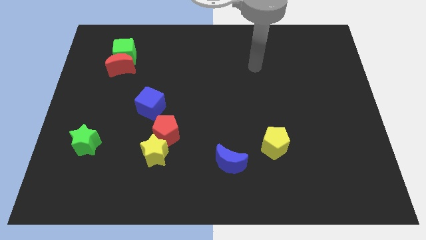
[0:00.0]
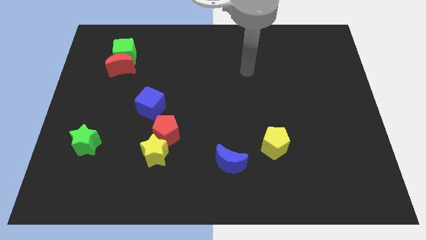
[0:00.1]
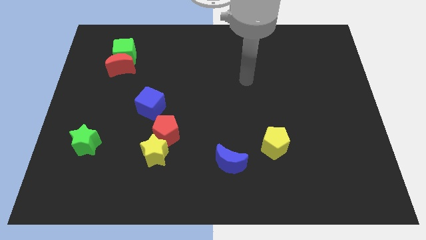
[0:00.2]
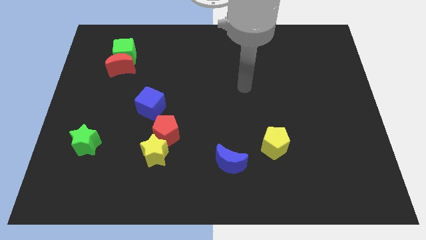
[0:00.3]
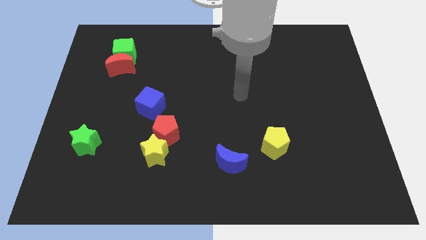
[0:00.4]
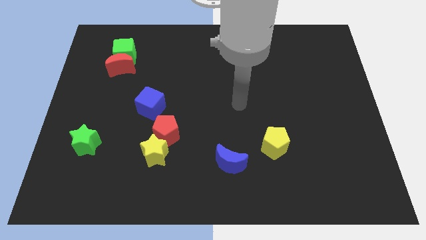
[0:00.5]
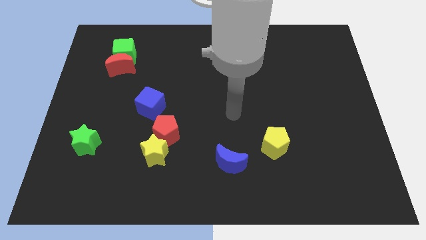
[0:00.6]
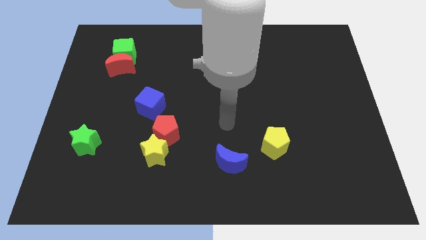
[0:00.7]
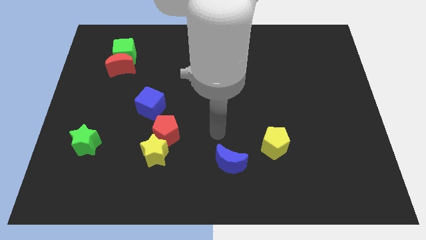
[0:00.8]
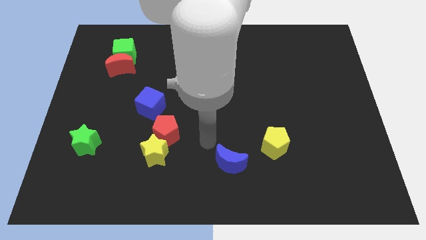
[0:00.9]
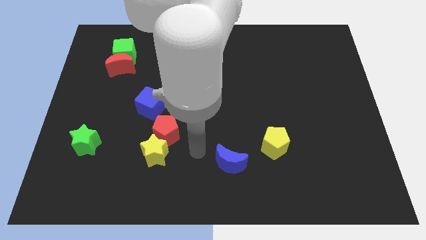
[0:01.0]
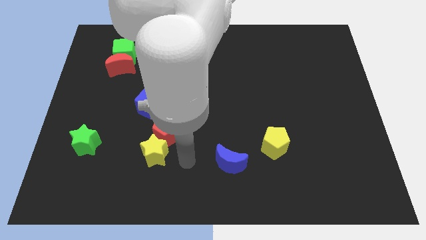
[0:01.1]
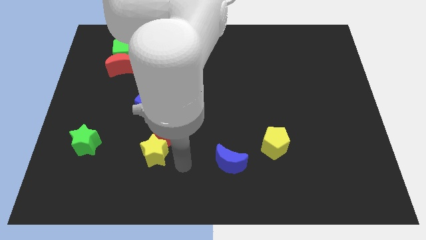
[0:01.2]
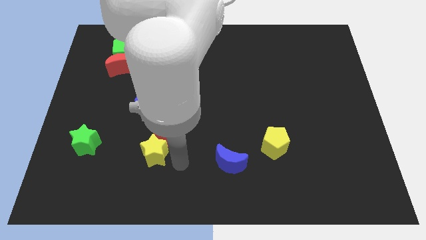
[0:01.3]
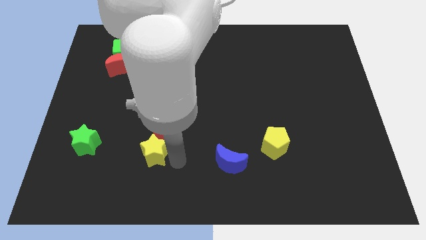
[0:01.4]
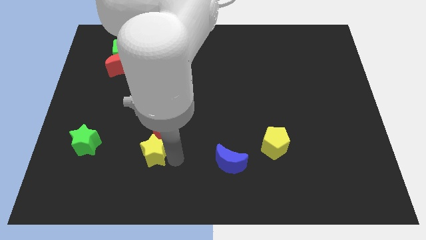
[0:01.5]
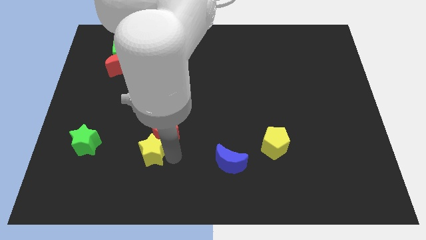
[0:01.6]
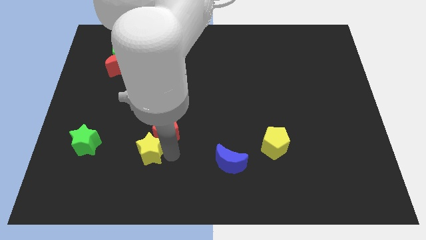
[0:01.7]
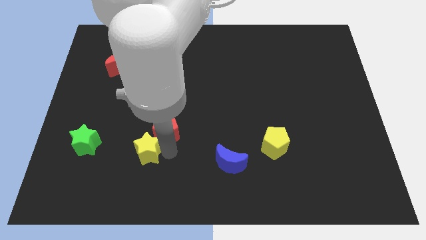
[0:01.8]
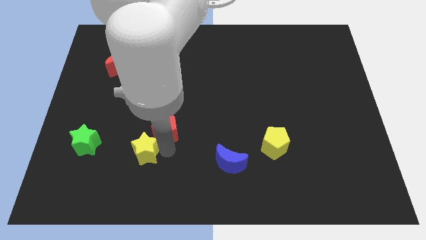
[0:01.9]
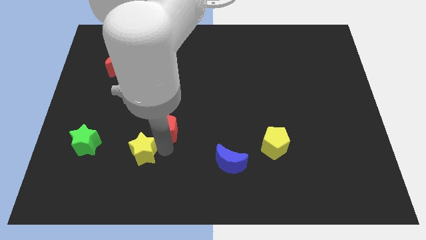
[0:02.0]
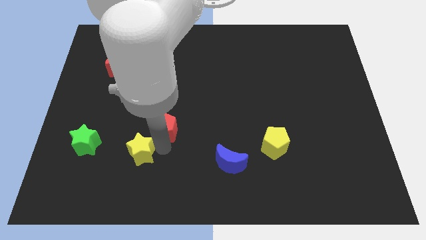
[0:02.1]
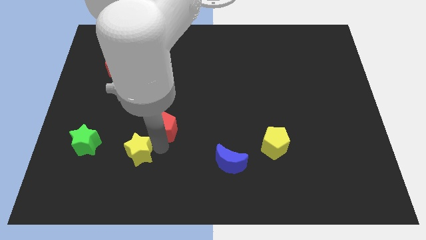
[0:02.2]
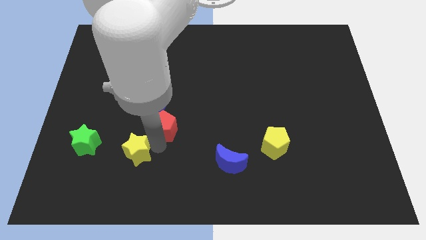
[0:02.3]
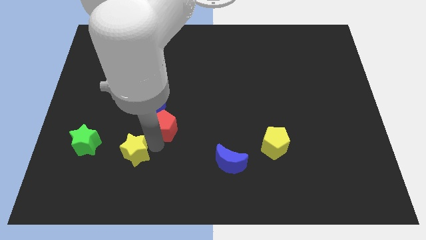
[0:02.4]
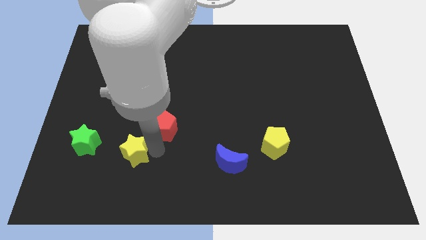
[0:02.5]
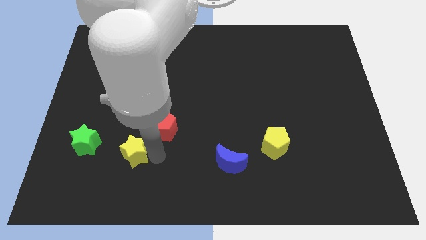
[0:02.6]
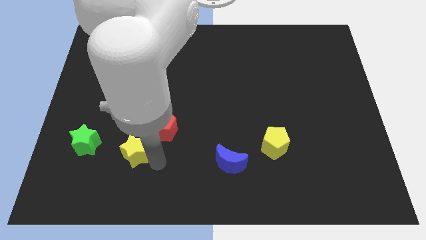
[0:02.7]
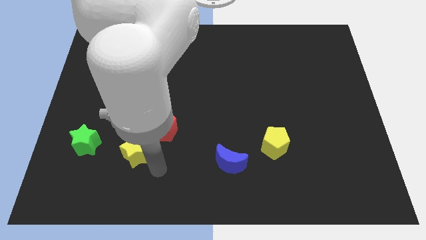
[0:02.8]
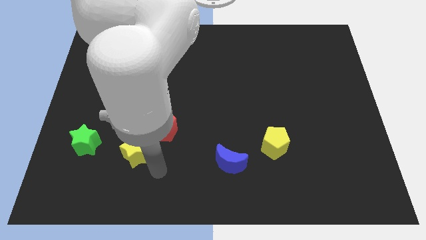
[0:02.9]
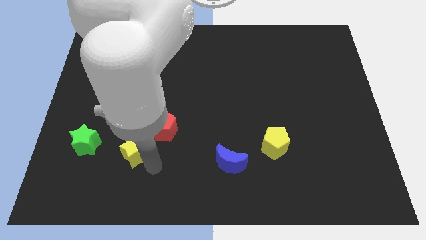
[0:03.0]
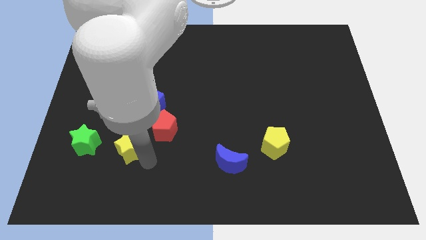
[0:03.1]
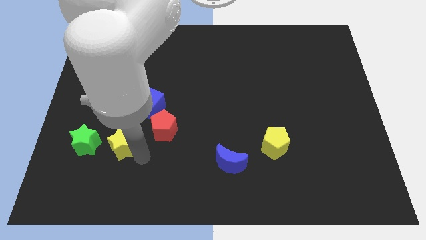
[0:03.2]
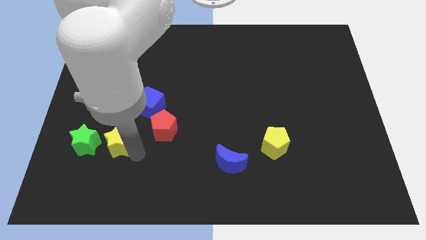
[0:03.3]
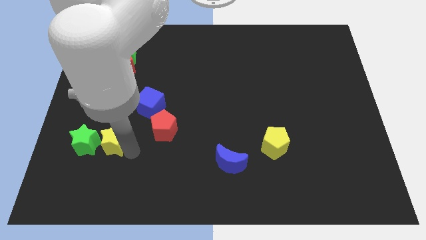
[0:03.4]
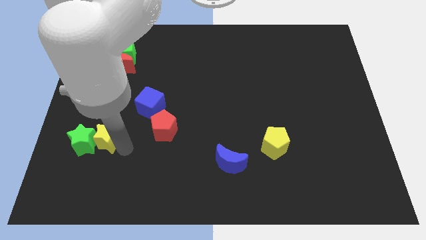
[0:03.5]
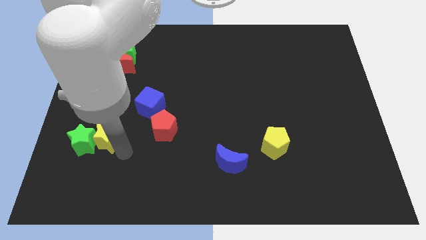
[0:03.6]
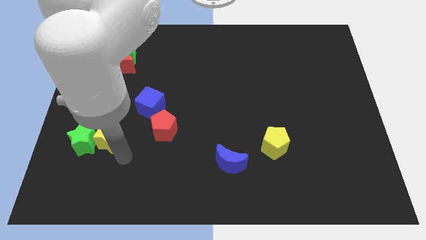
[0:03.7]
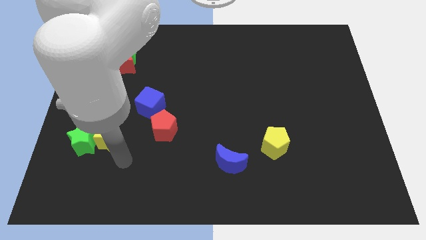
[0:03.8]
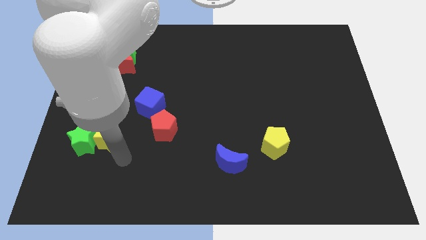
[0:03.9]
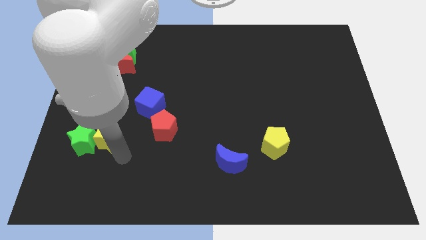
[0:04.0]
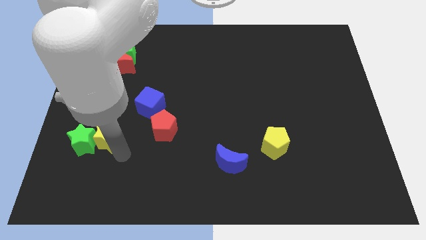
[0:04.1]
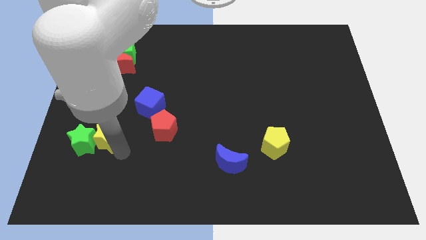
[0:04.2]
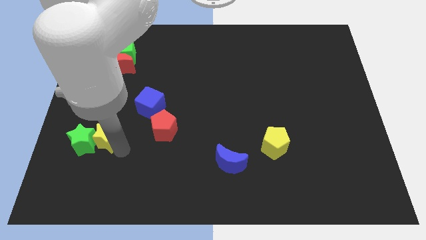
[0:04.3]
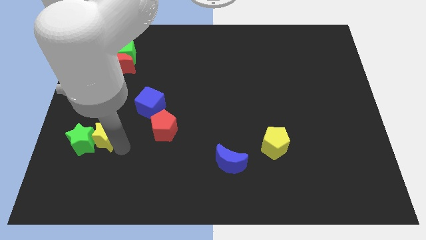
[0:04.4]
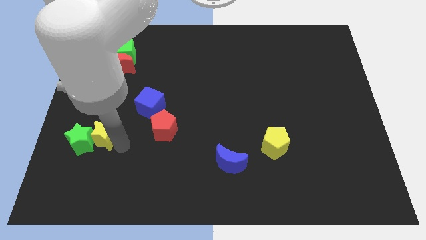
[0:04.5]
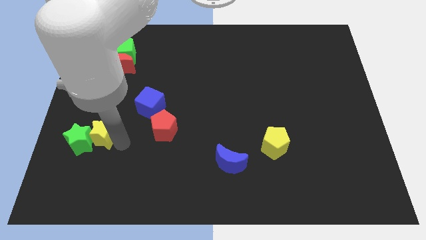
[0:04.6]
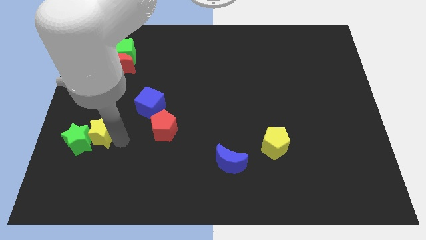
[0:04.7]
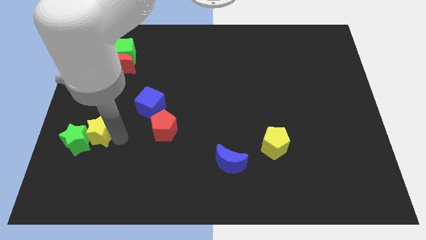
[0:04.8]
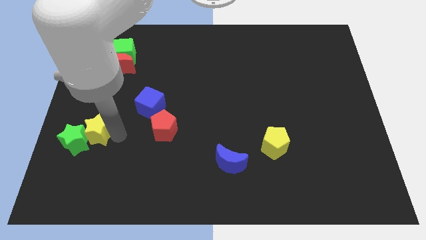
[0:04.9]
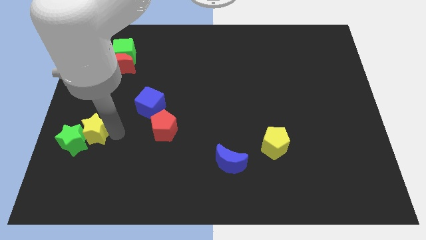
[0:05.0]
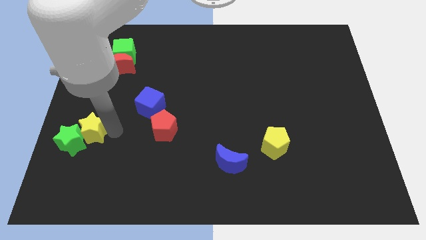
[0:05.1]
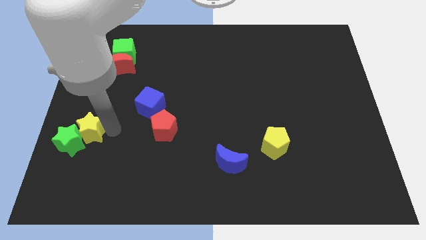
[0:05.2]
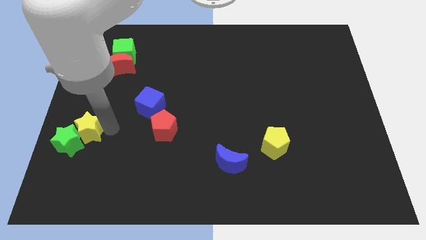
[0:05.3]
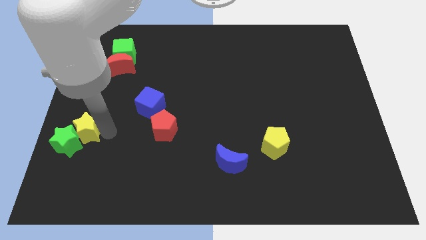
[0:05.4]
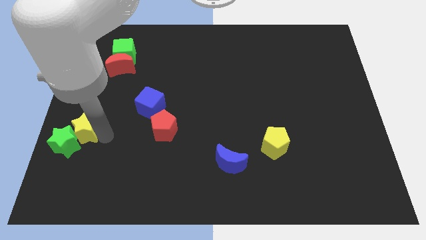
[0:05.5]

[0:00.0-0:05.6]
move the yellow star to the center left
